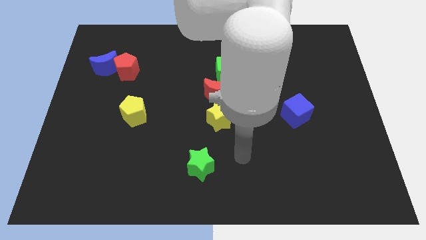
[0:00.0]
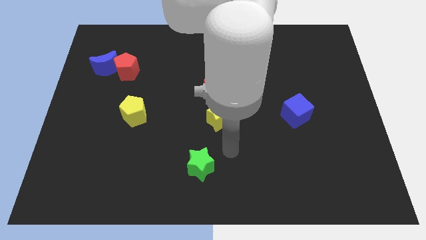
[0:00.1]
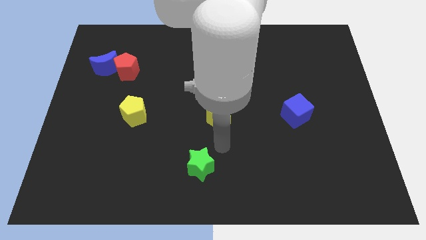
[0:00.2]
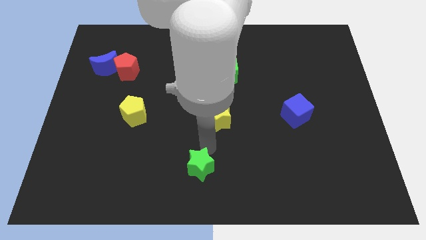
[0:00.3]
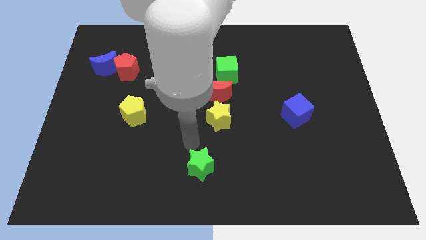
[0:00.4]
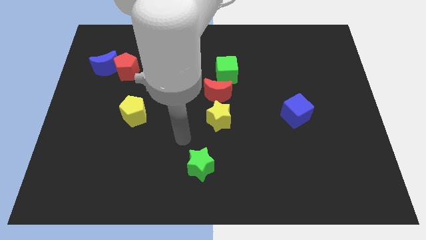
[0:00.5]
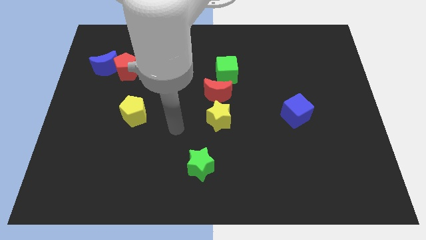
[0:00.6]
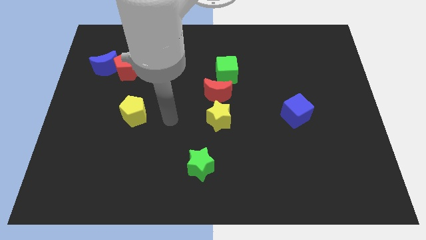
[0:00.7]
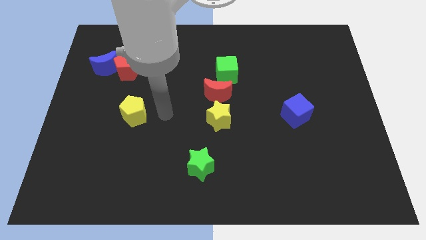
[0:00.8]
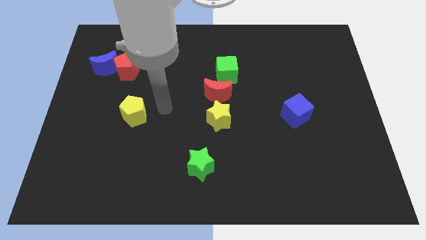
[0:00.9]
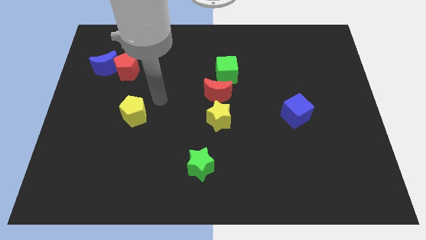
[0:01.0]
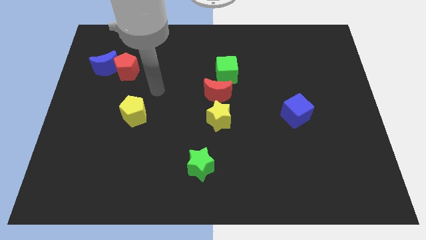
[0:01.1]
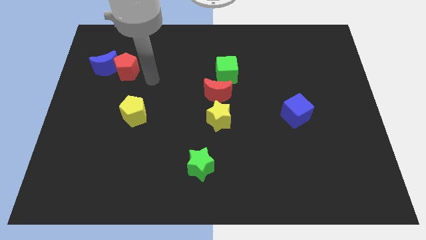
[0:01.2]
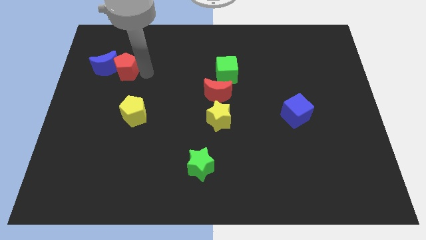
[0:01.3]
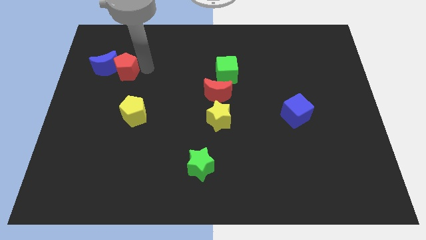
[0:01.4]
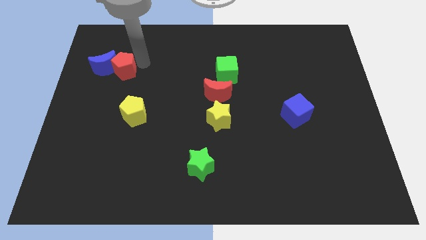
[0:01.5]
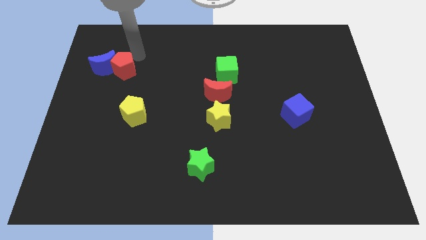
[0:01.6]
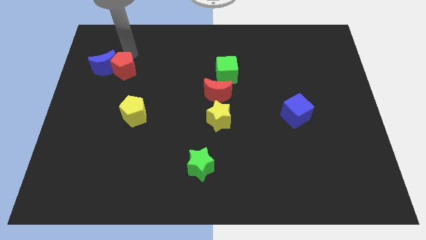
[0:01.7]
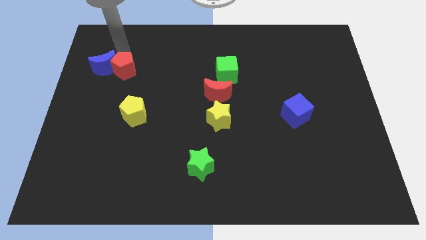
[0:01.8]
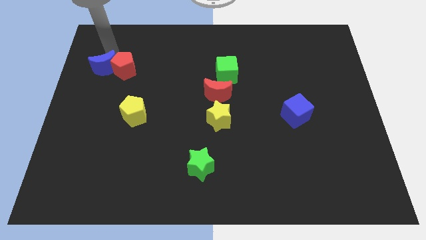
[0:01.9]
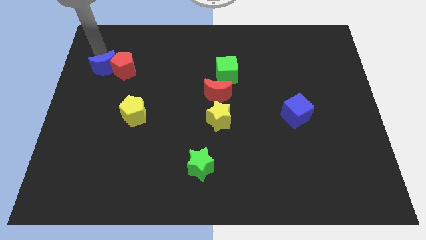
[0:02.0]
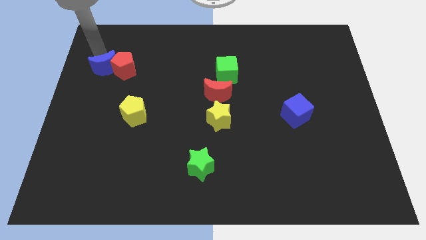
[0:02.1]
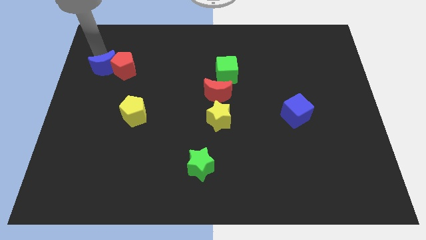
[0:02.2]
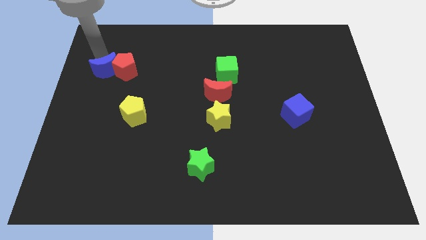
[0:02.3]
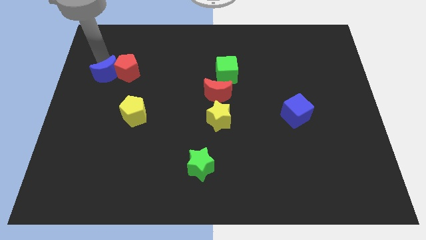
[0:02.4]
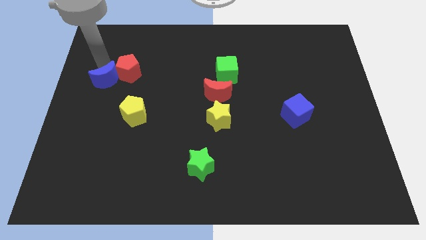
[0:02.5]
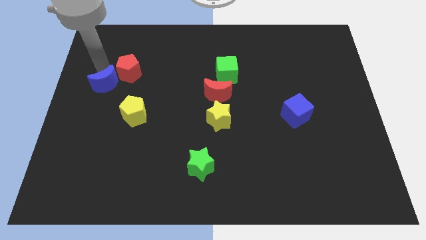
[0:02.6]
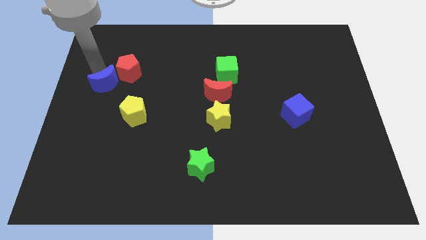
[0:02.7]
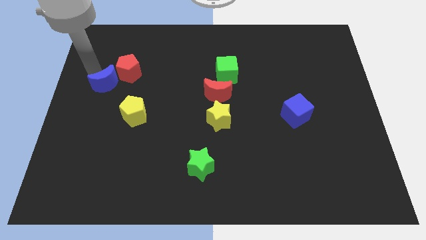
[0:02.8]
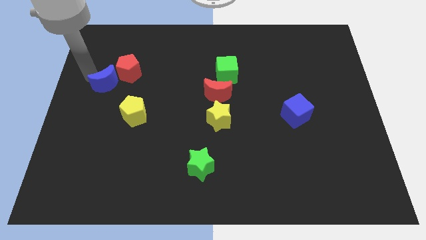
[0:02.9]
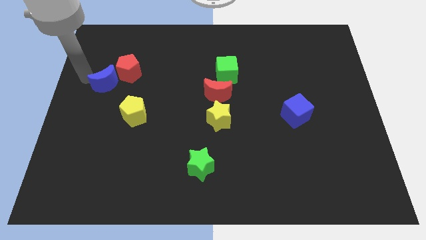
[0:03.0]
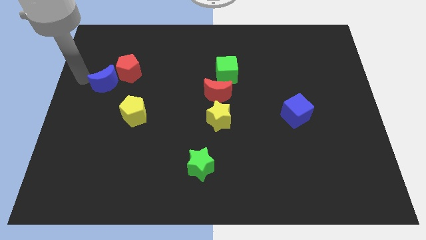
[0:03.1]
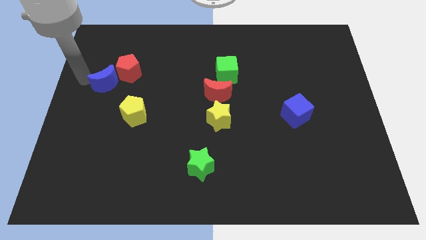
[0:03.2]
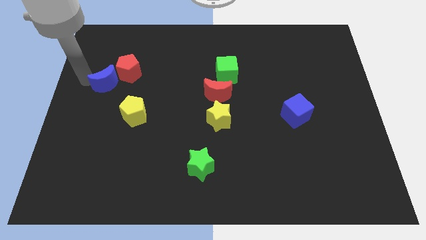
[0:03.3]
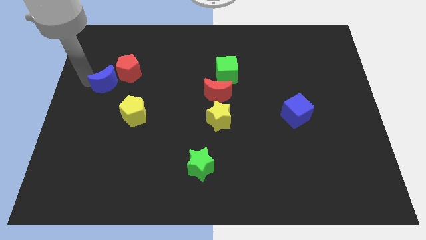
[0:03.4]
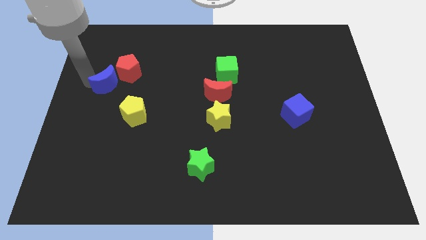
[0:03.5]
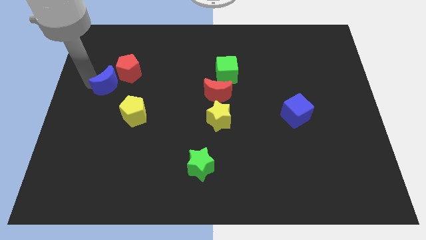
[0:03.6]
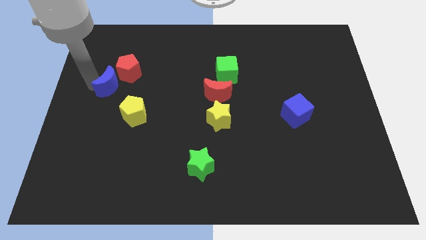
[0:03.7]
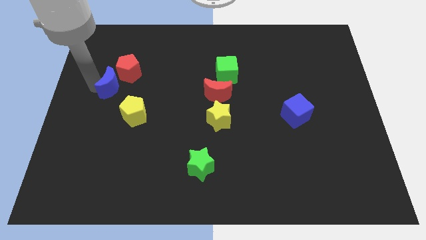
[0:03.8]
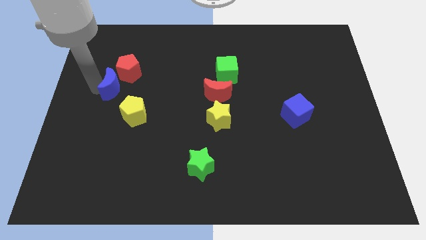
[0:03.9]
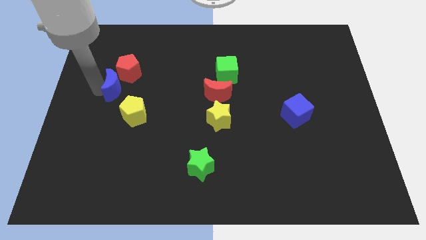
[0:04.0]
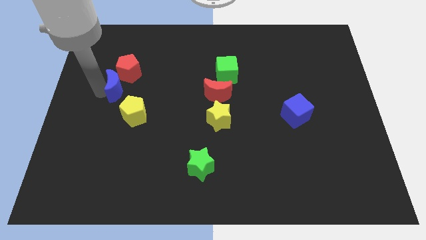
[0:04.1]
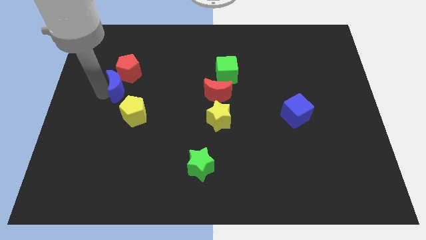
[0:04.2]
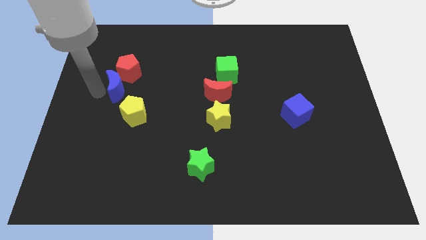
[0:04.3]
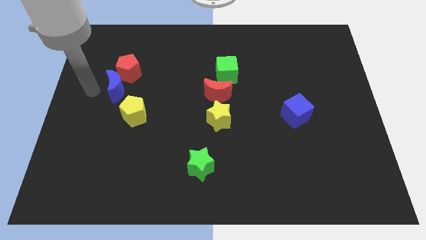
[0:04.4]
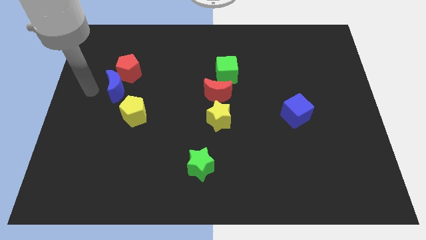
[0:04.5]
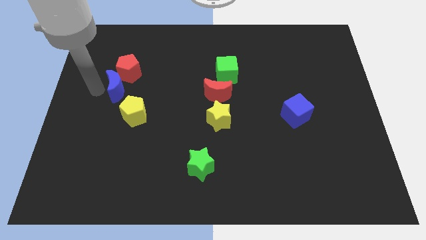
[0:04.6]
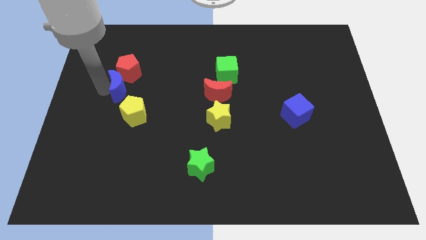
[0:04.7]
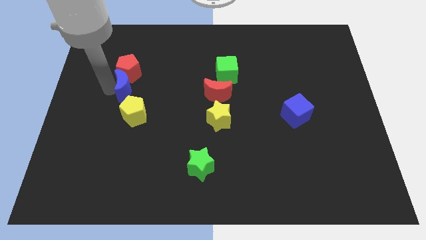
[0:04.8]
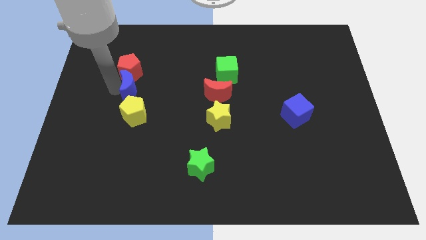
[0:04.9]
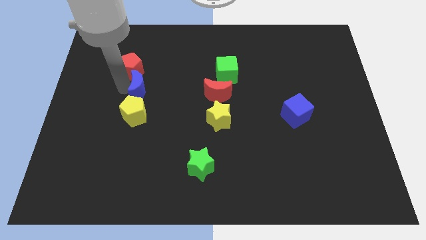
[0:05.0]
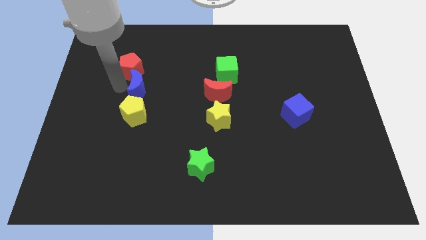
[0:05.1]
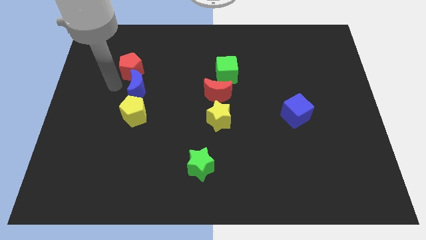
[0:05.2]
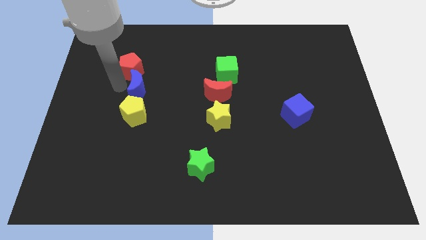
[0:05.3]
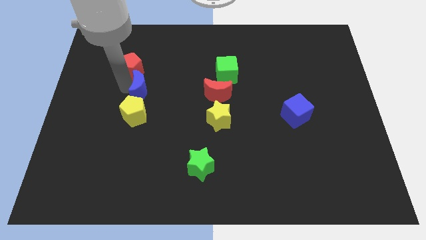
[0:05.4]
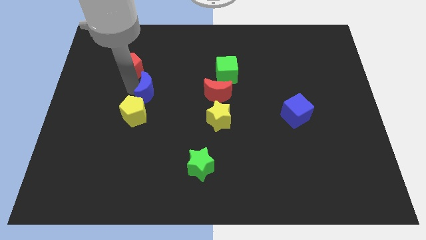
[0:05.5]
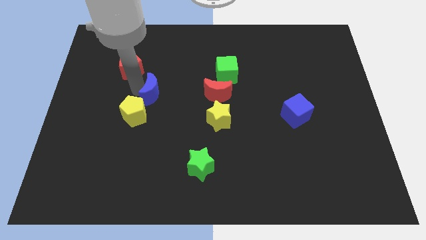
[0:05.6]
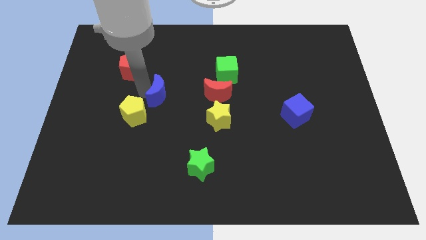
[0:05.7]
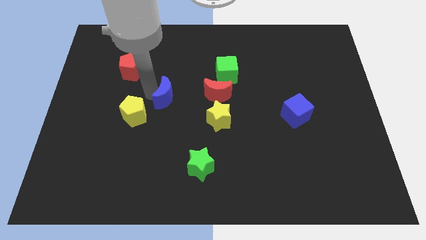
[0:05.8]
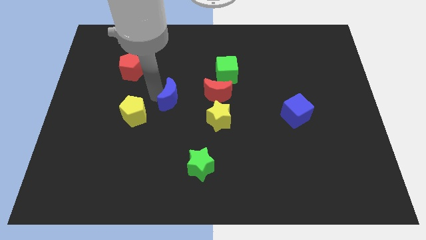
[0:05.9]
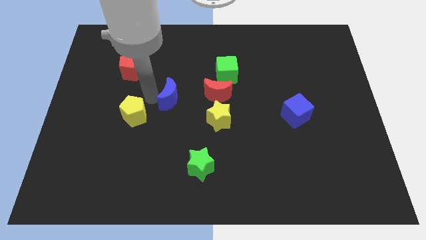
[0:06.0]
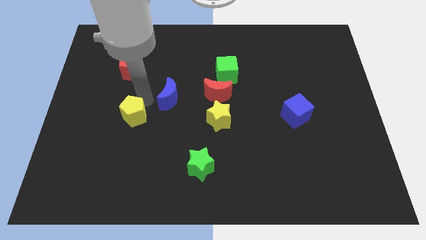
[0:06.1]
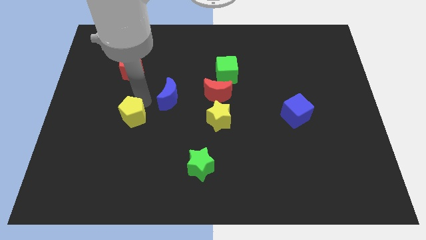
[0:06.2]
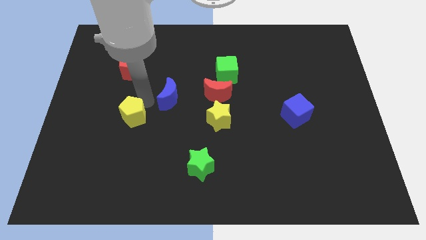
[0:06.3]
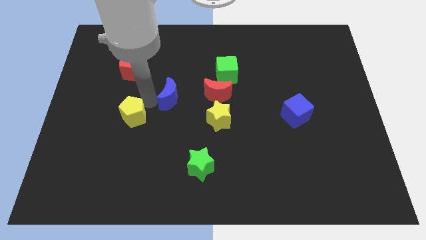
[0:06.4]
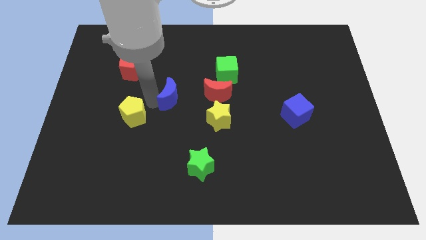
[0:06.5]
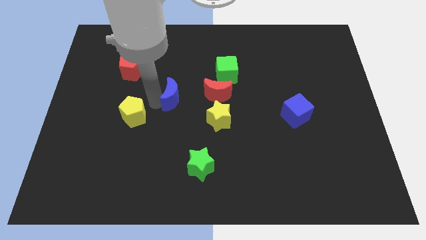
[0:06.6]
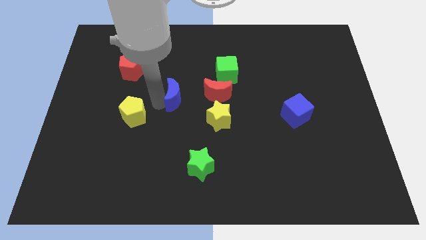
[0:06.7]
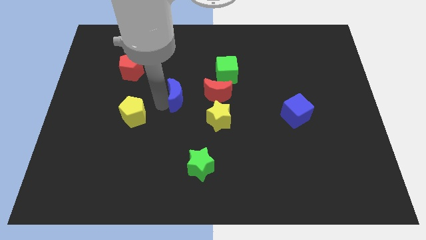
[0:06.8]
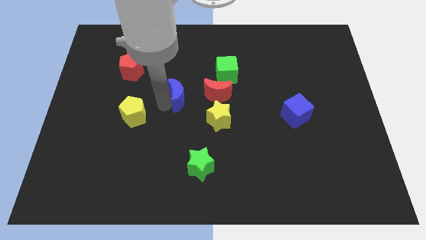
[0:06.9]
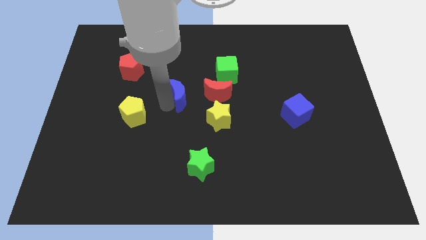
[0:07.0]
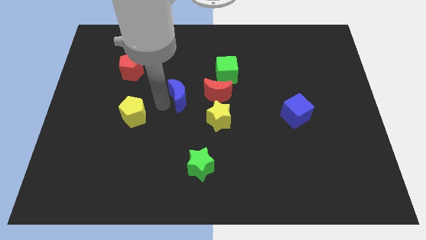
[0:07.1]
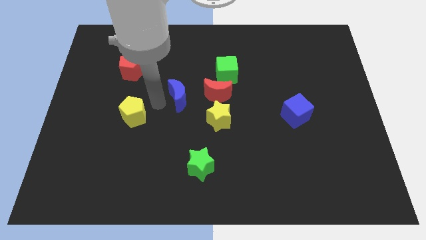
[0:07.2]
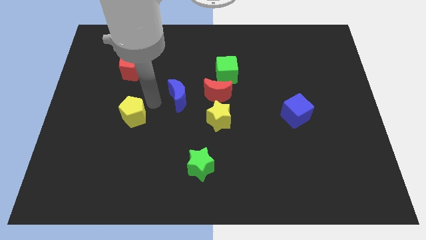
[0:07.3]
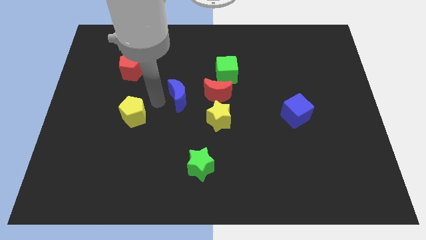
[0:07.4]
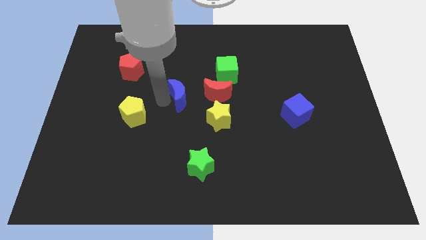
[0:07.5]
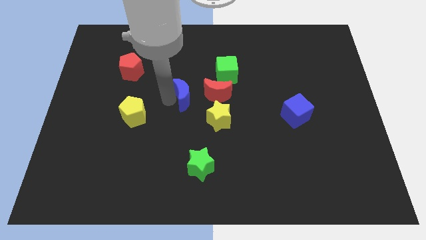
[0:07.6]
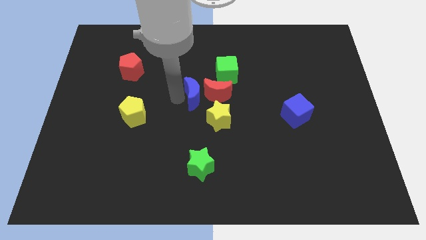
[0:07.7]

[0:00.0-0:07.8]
put the blue moon towards the red moon
